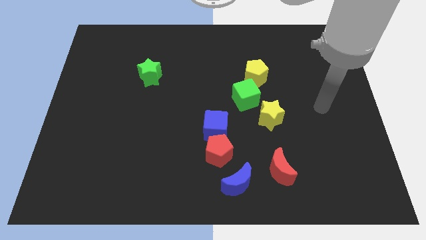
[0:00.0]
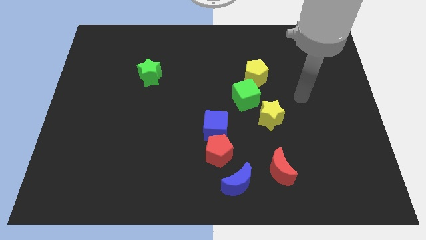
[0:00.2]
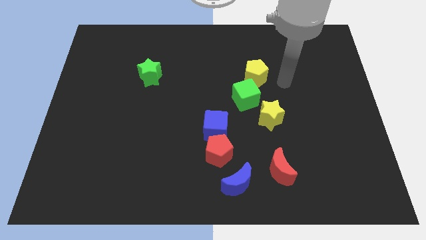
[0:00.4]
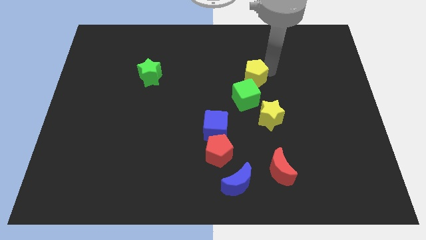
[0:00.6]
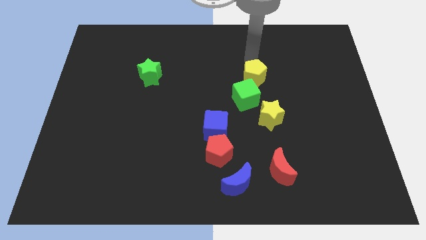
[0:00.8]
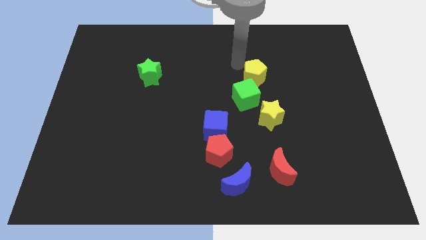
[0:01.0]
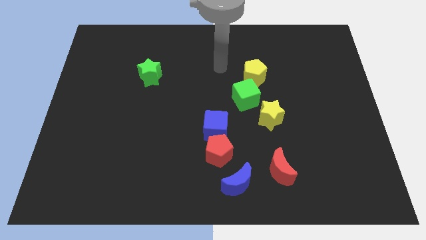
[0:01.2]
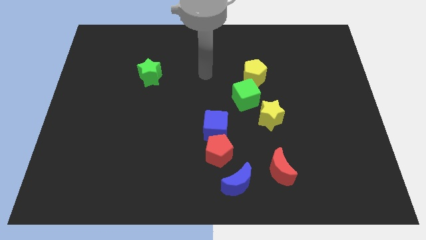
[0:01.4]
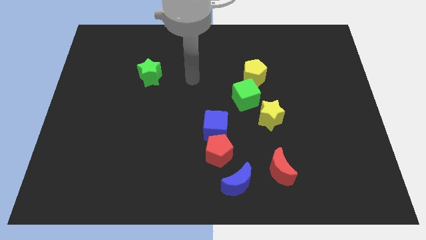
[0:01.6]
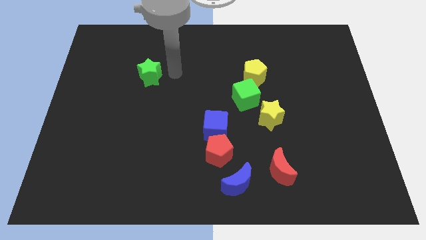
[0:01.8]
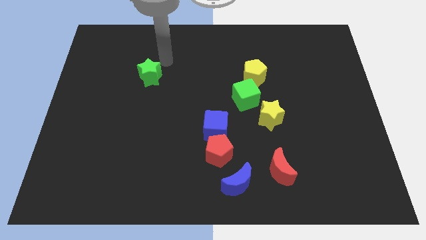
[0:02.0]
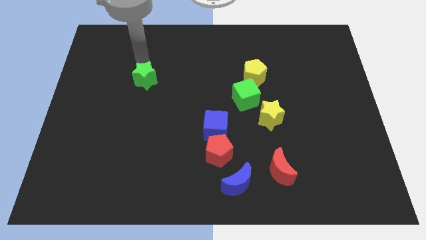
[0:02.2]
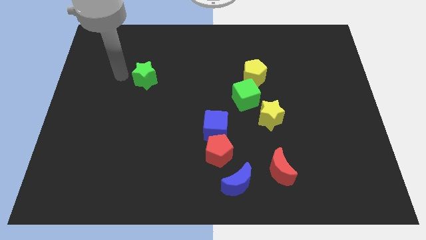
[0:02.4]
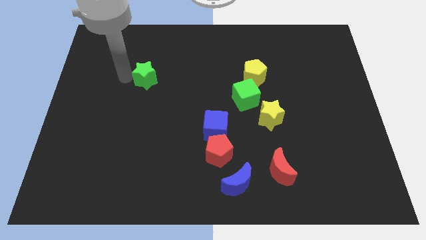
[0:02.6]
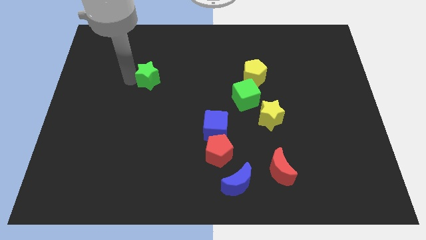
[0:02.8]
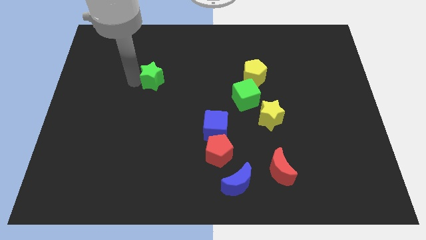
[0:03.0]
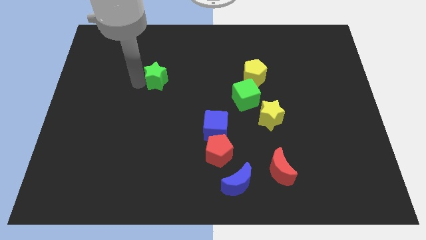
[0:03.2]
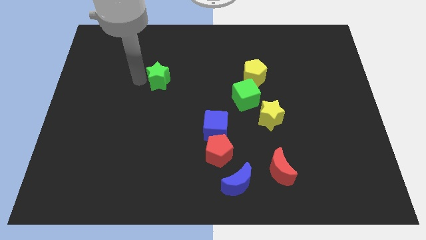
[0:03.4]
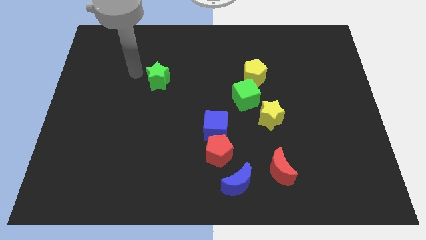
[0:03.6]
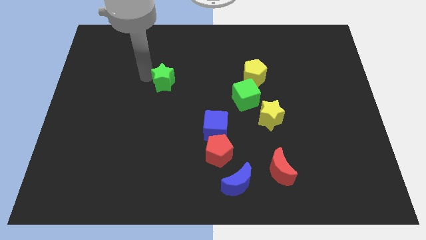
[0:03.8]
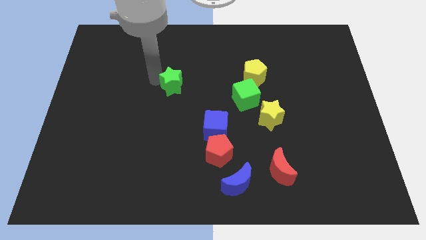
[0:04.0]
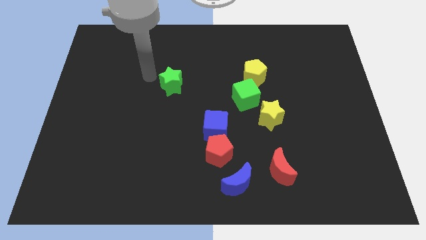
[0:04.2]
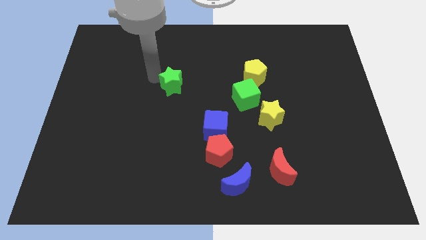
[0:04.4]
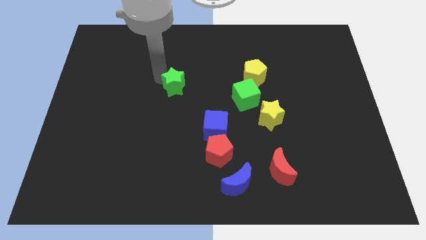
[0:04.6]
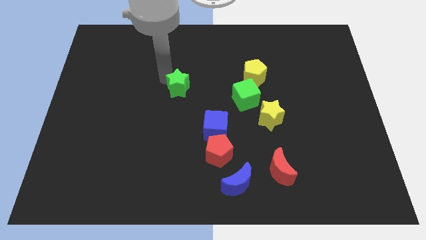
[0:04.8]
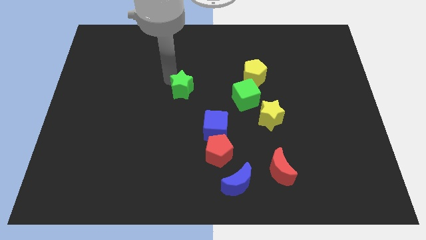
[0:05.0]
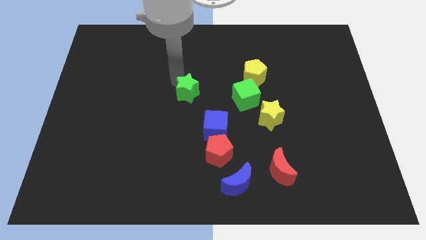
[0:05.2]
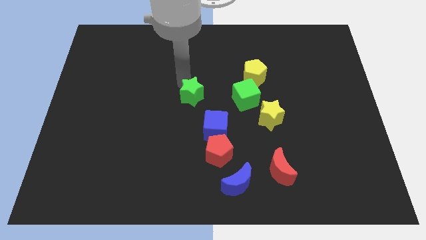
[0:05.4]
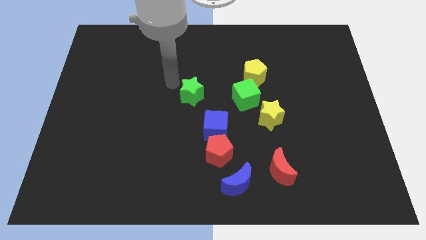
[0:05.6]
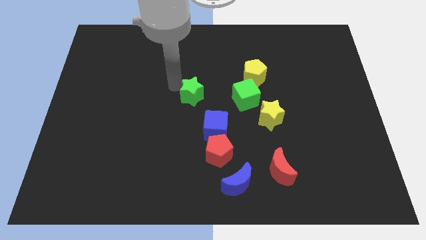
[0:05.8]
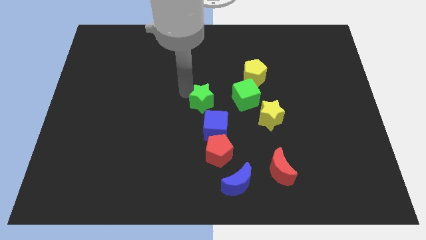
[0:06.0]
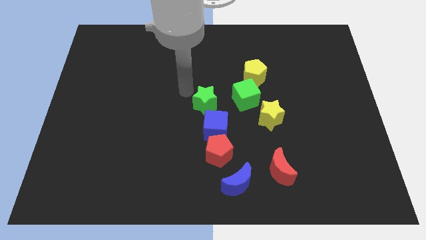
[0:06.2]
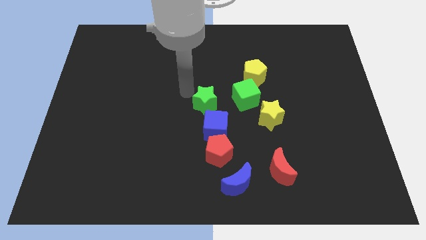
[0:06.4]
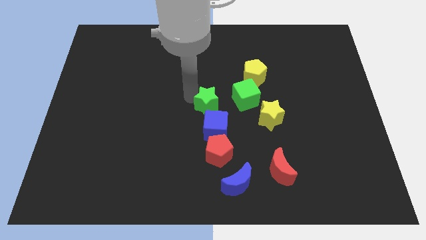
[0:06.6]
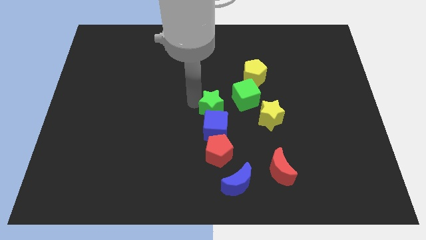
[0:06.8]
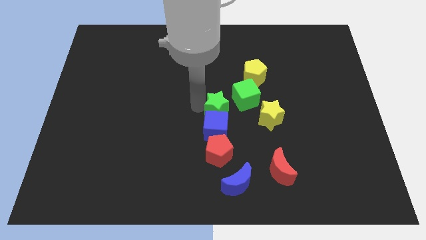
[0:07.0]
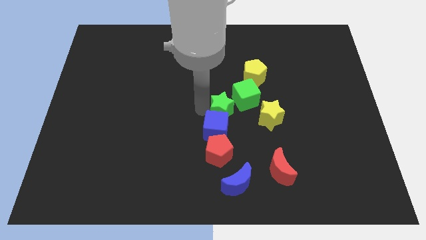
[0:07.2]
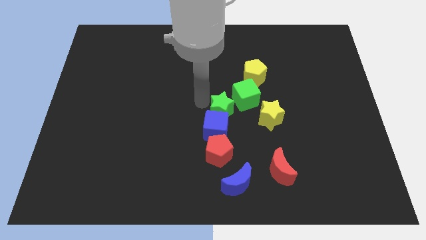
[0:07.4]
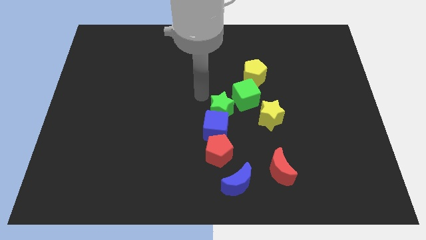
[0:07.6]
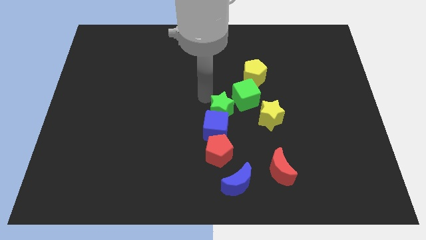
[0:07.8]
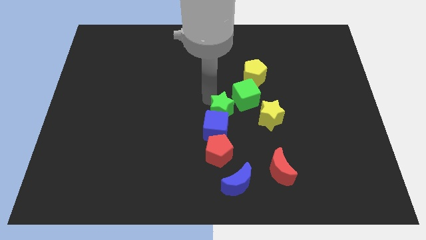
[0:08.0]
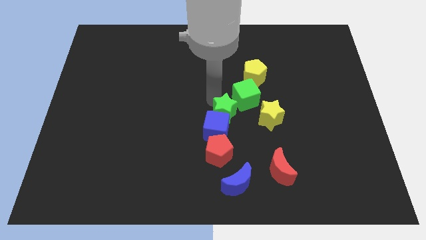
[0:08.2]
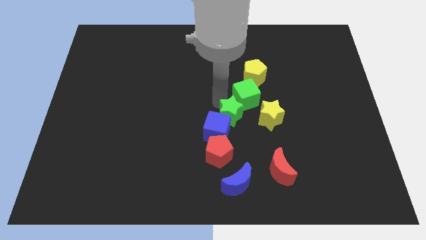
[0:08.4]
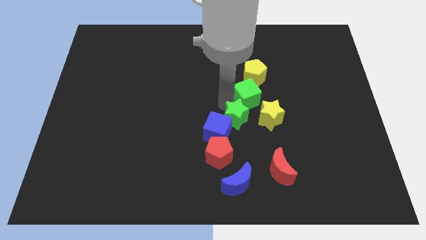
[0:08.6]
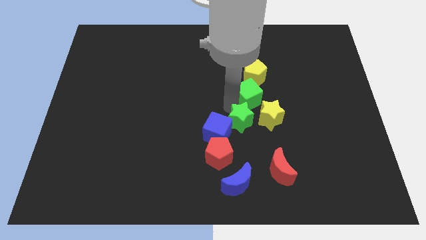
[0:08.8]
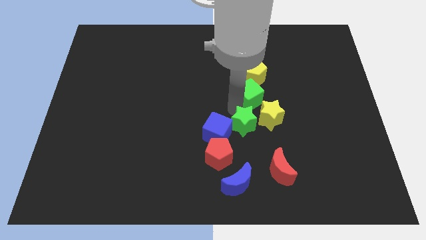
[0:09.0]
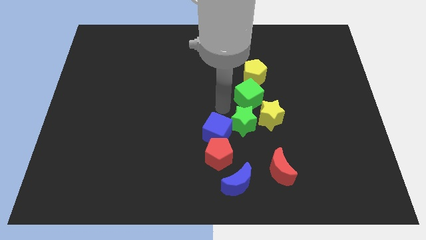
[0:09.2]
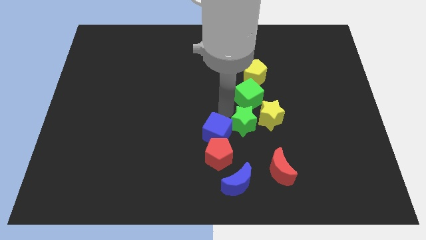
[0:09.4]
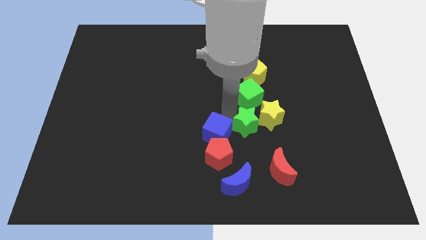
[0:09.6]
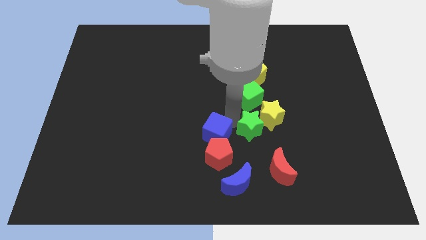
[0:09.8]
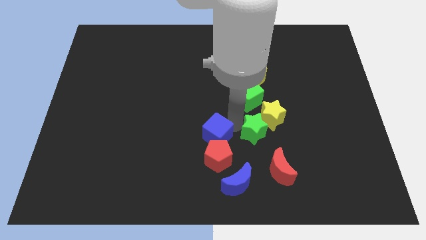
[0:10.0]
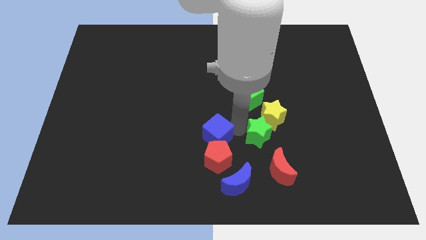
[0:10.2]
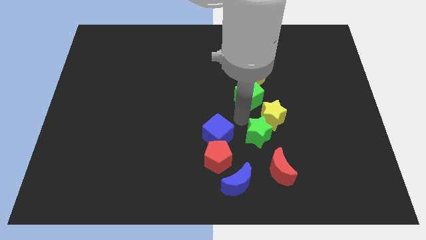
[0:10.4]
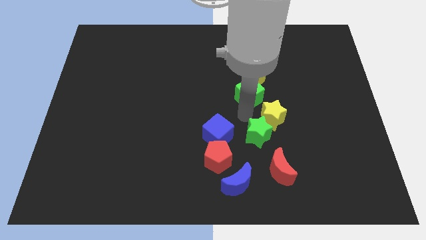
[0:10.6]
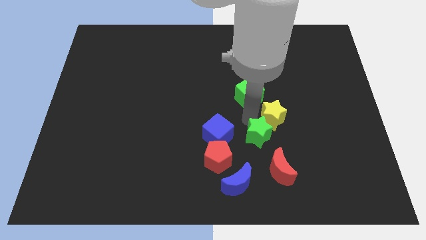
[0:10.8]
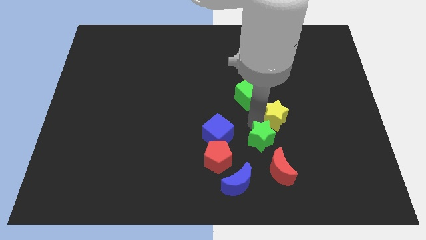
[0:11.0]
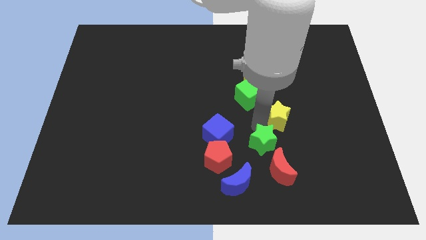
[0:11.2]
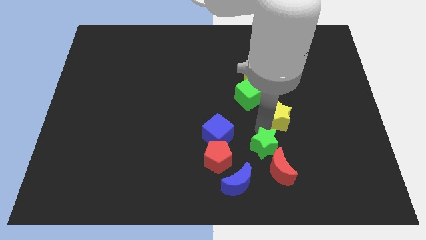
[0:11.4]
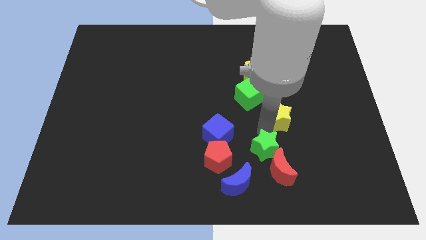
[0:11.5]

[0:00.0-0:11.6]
push the green star close to the red moon

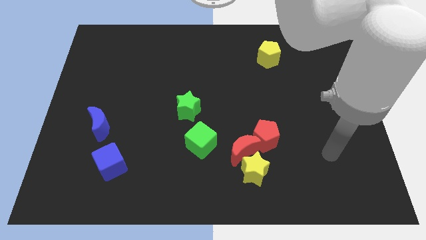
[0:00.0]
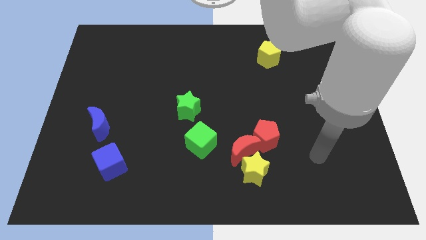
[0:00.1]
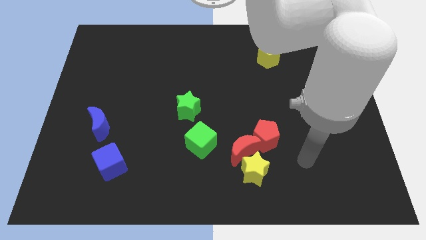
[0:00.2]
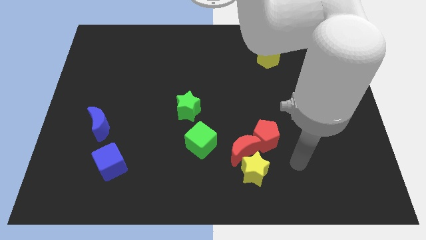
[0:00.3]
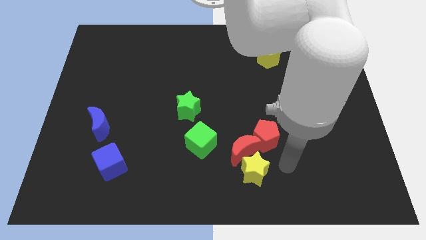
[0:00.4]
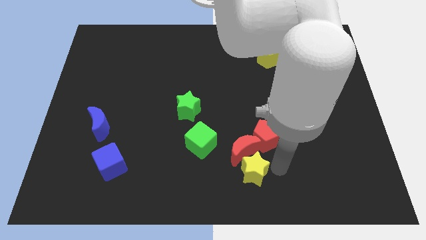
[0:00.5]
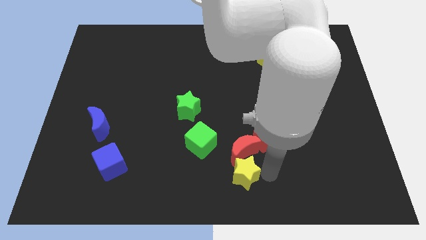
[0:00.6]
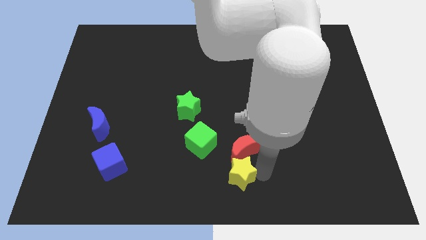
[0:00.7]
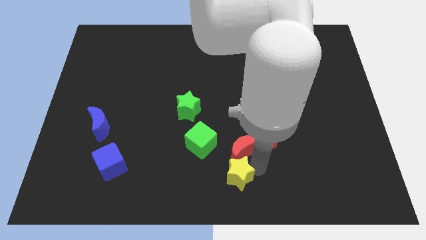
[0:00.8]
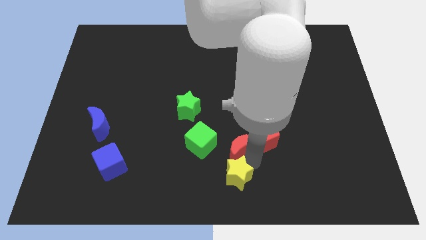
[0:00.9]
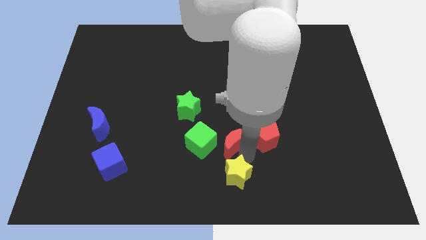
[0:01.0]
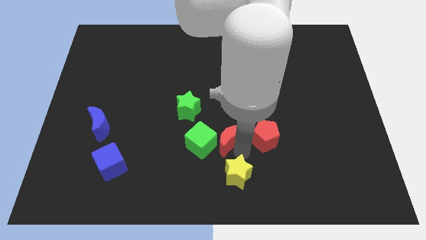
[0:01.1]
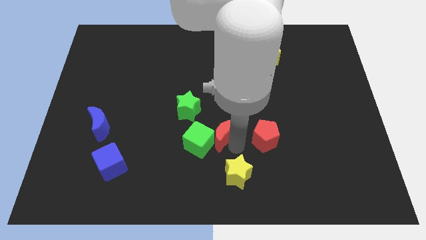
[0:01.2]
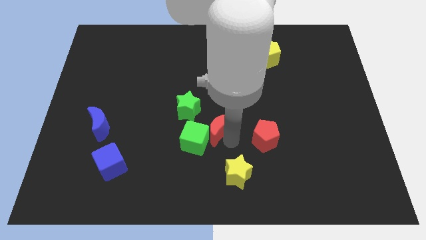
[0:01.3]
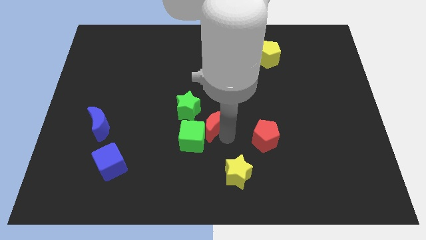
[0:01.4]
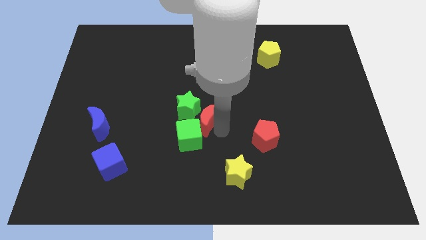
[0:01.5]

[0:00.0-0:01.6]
push the red moon to the green star
